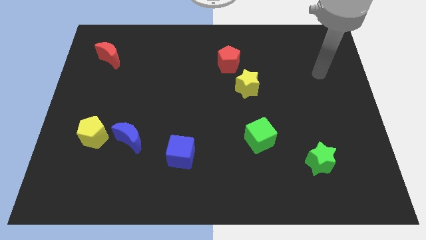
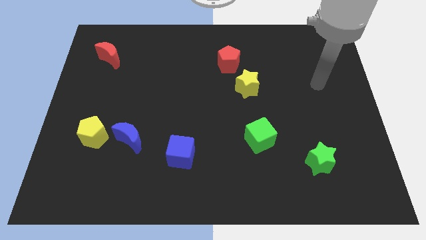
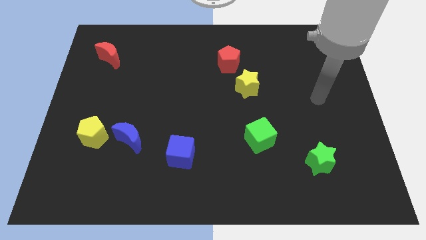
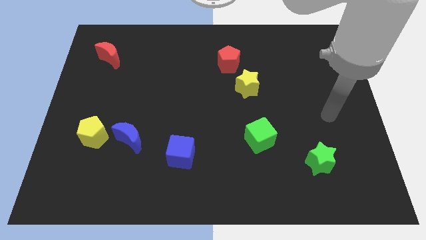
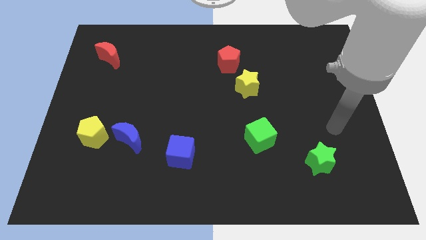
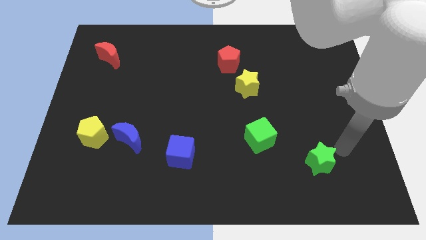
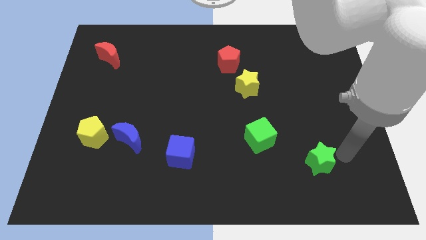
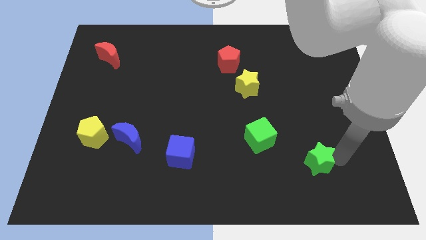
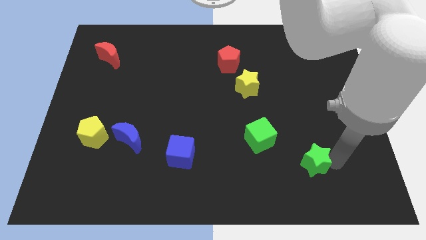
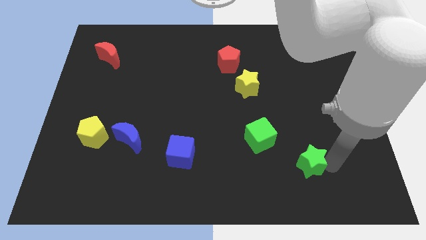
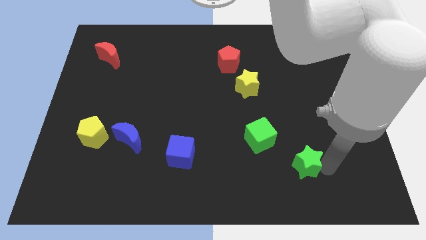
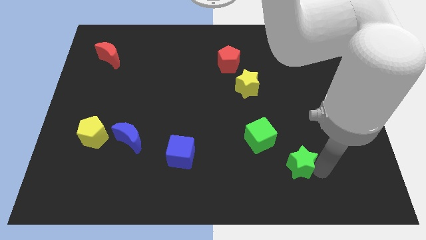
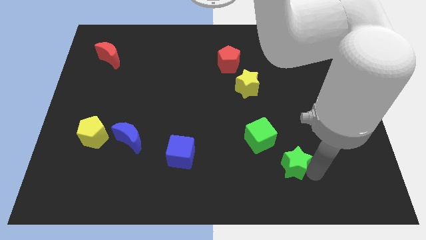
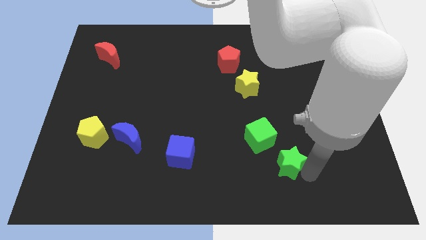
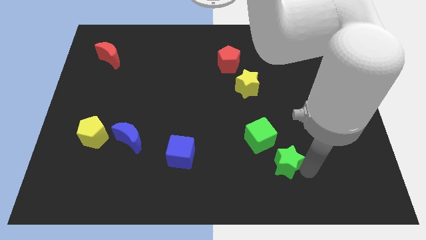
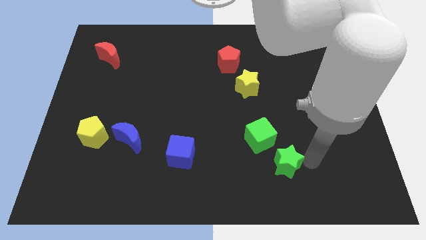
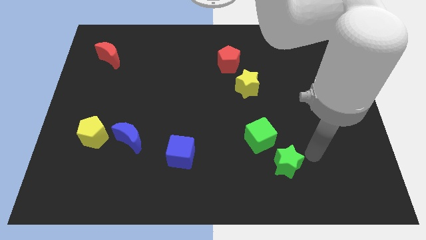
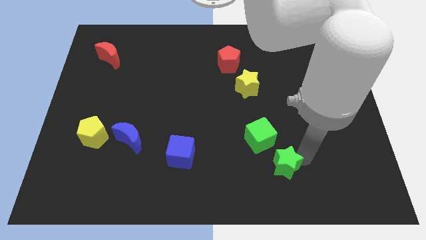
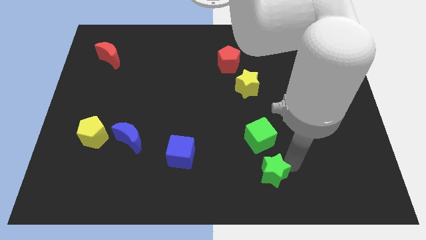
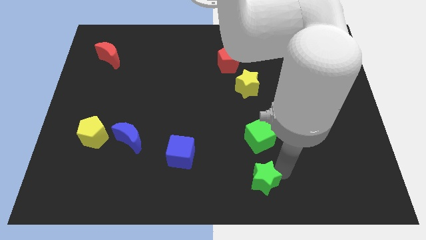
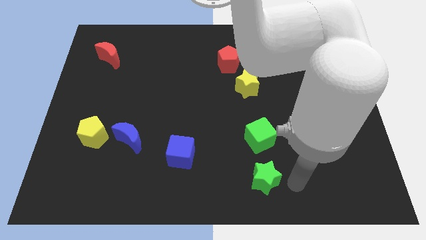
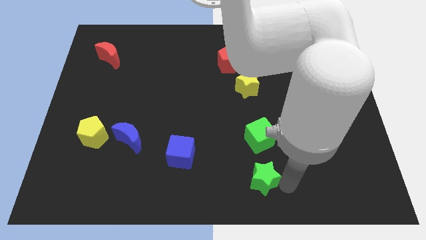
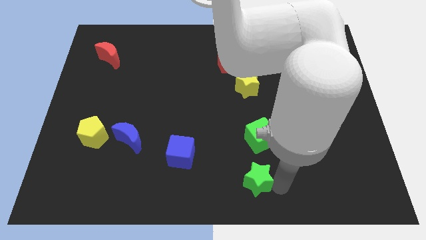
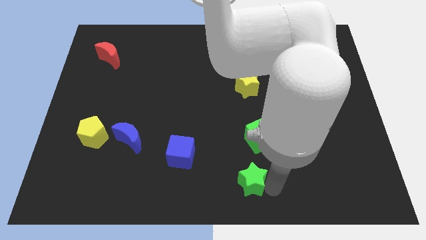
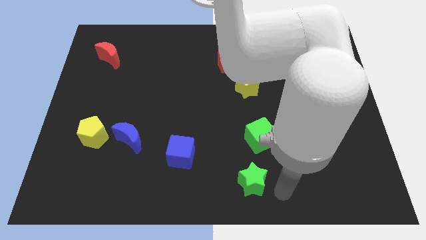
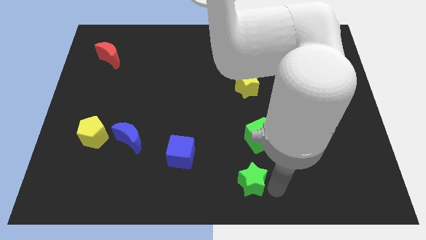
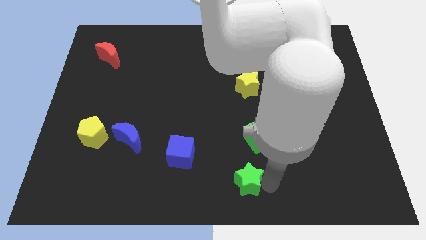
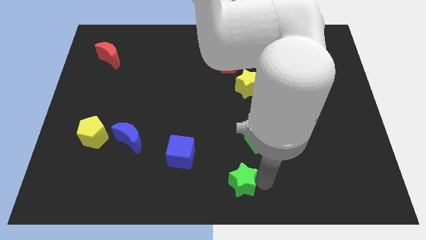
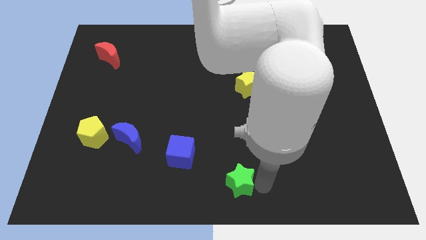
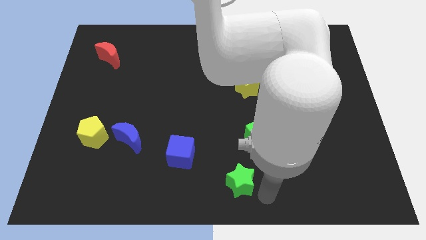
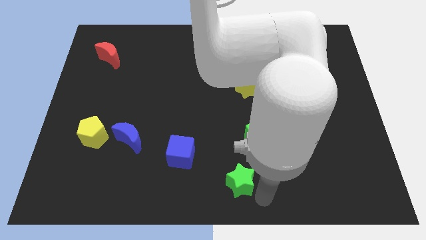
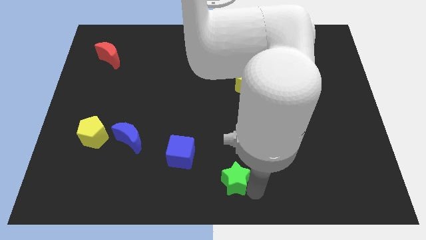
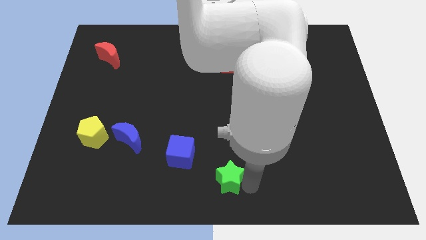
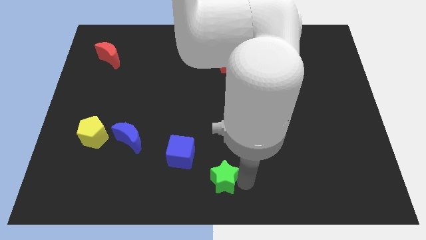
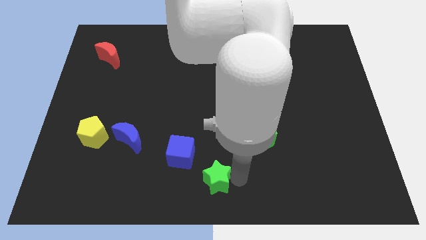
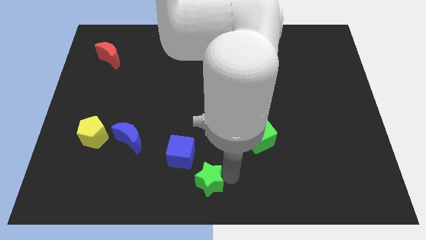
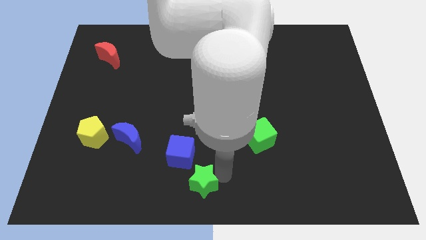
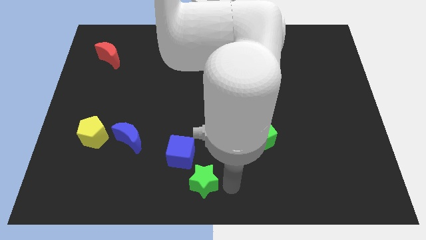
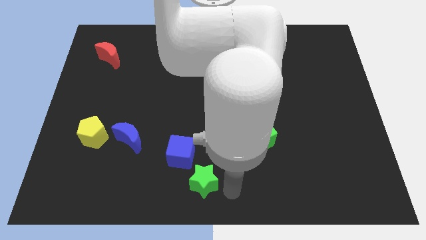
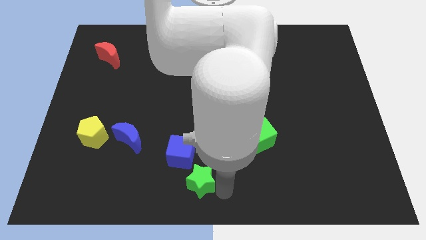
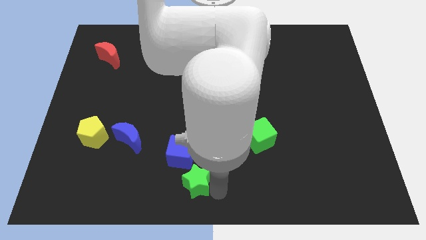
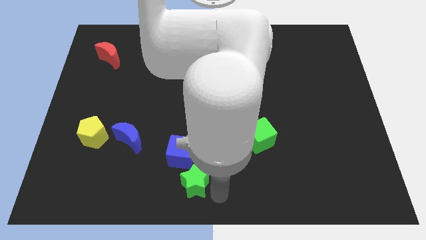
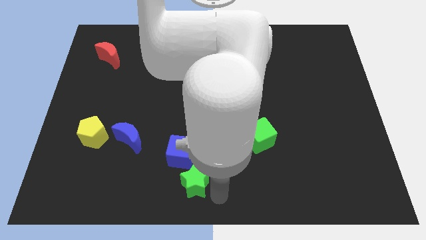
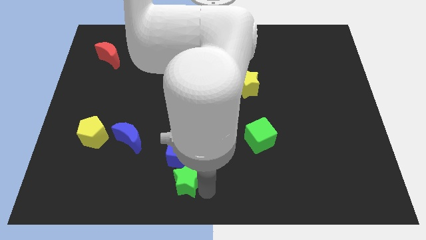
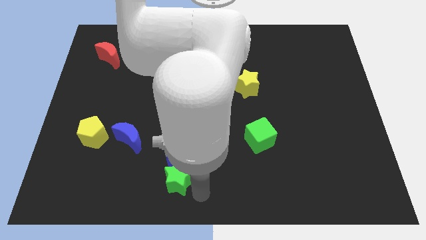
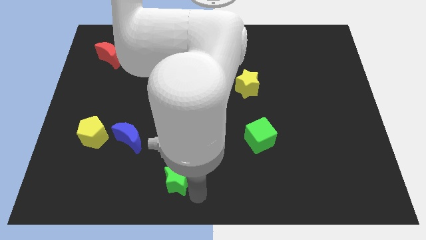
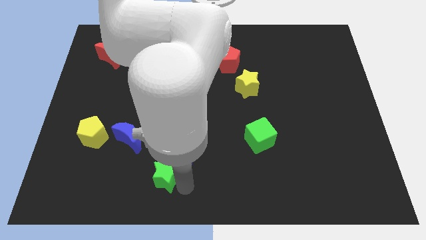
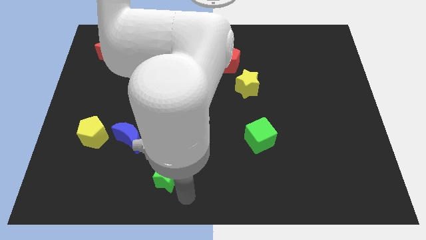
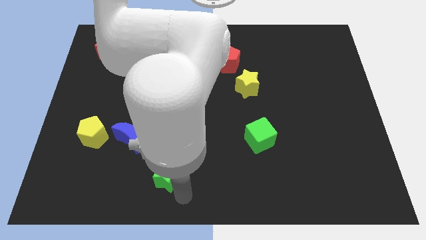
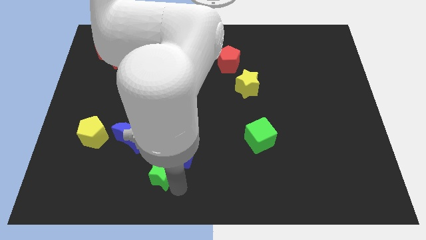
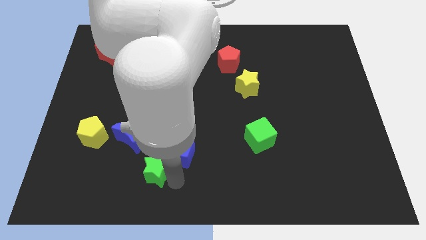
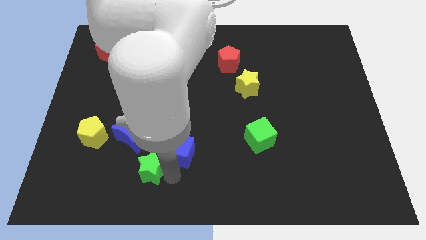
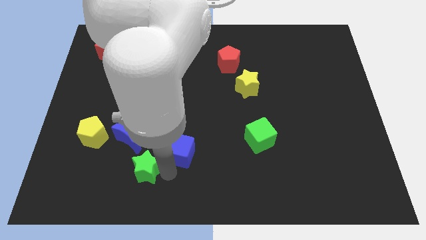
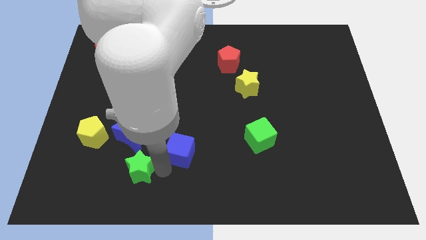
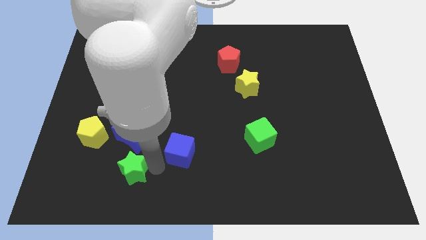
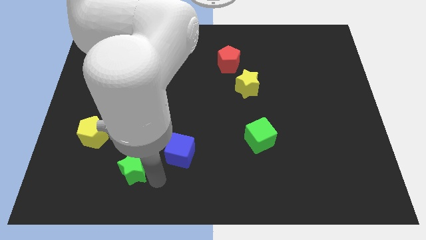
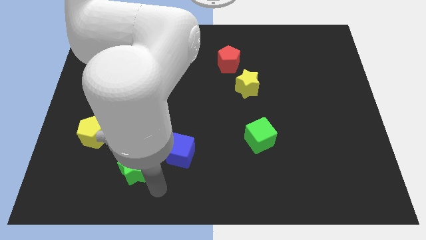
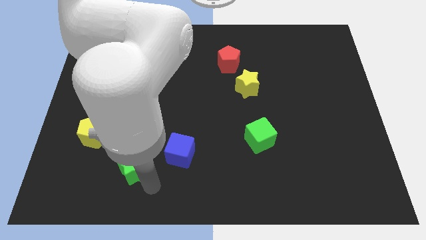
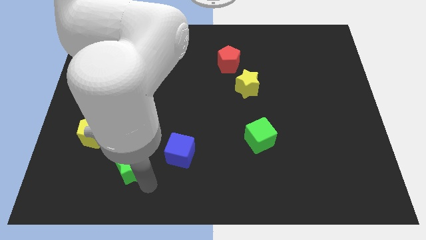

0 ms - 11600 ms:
put the green star to the bottom right side of the yellow pentagon

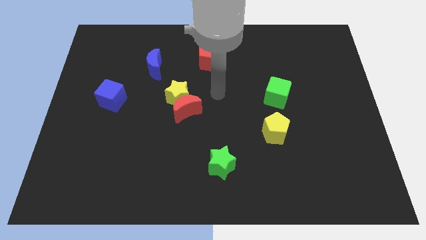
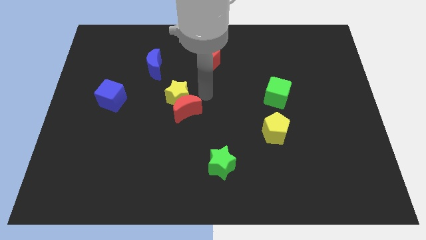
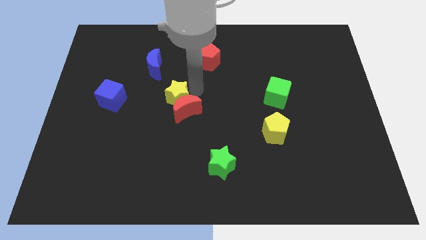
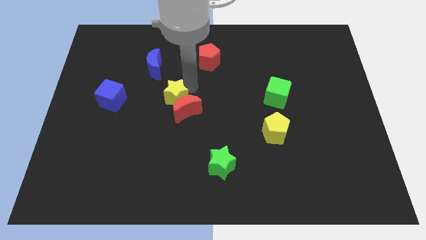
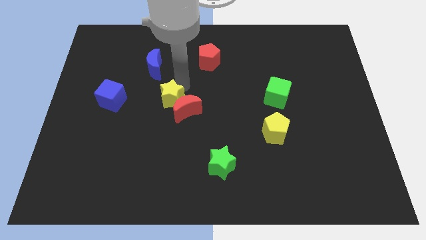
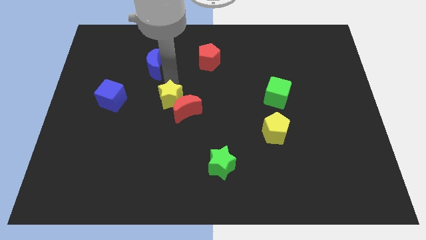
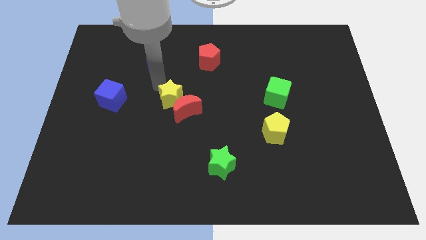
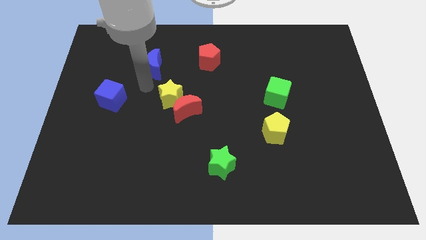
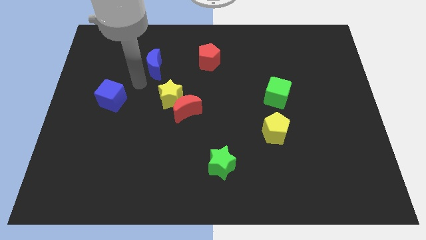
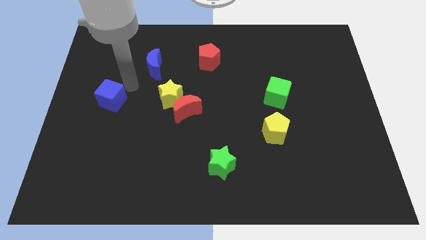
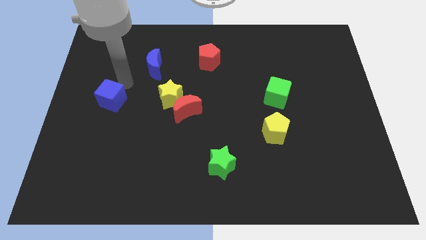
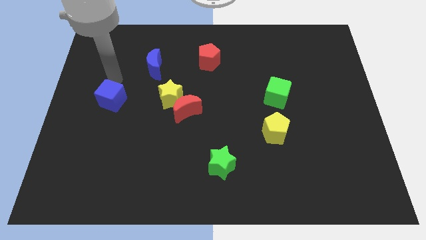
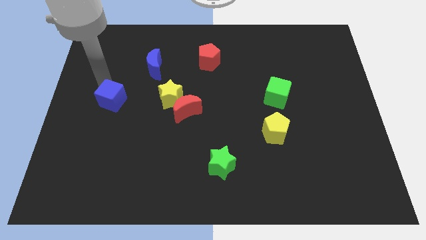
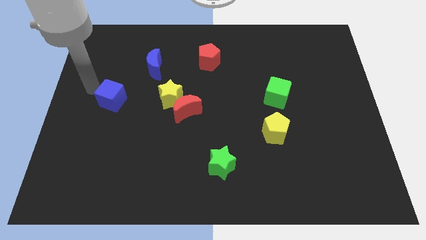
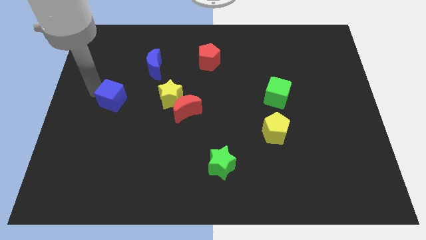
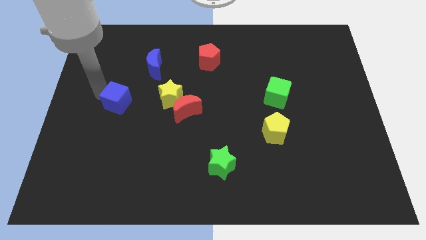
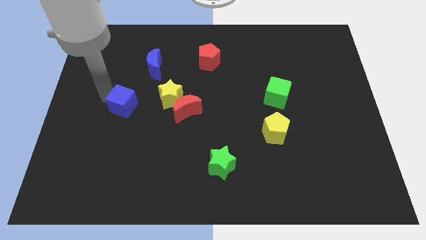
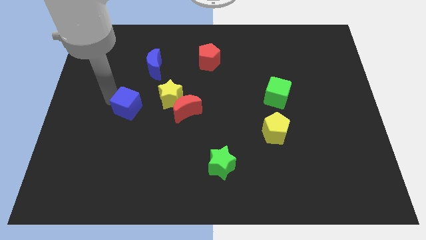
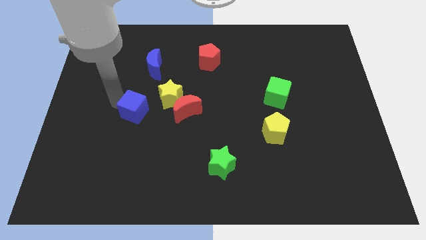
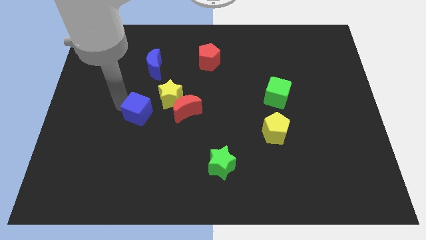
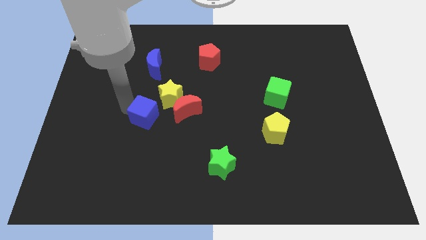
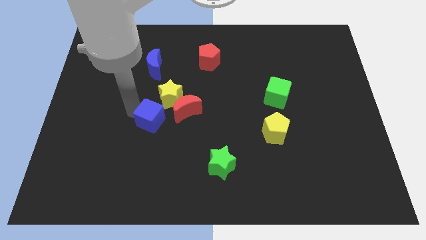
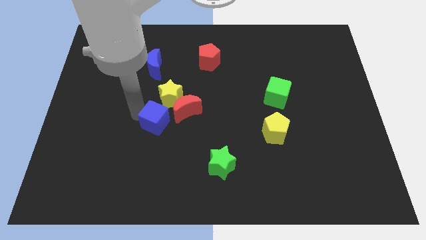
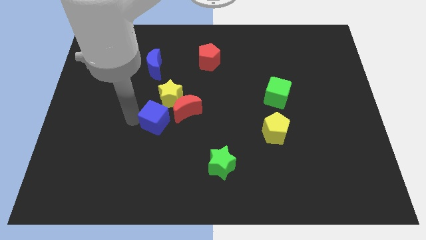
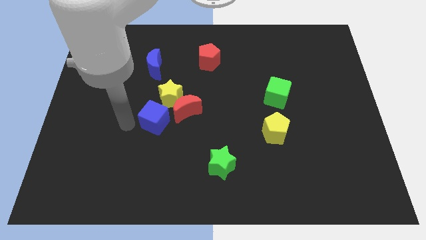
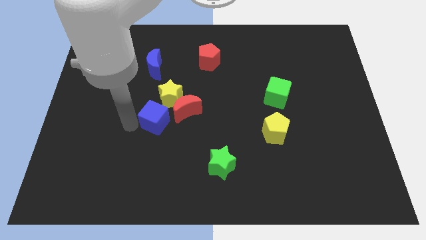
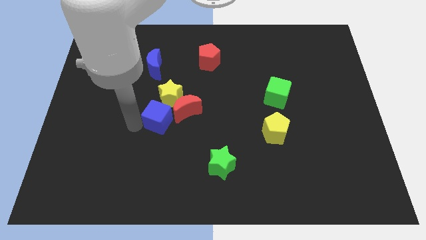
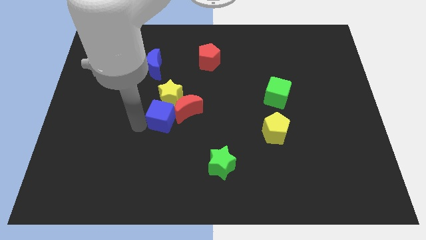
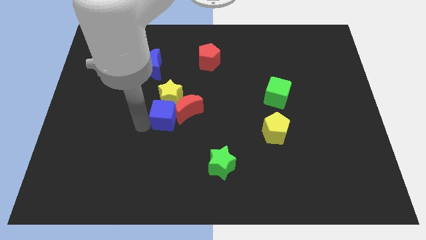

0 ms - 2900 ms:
move the blue cube to the bottom right side of the yellow star
